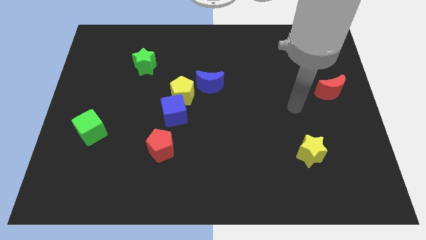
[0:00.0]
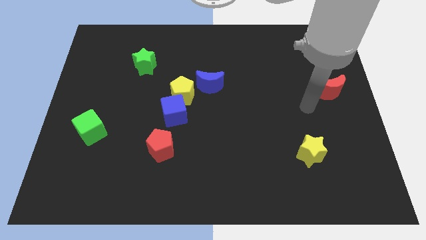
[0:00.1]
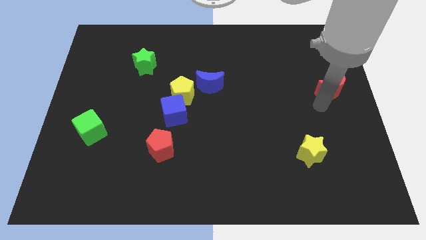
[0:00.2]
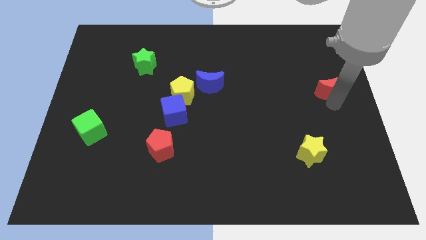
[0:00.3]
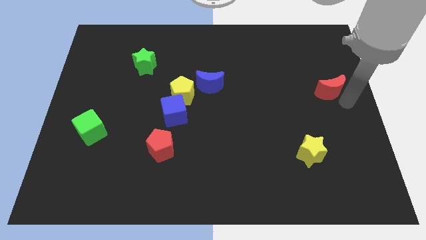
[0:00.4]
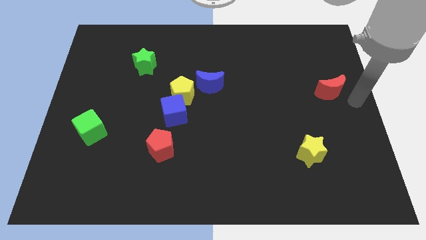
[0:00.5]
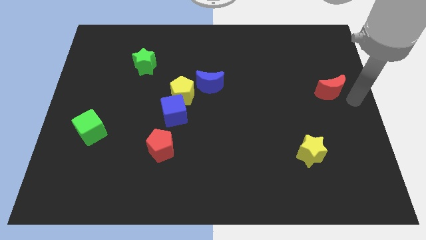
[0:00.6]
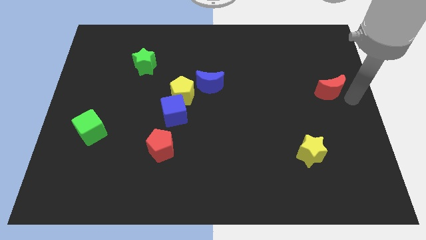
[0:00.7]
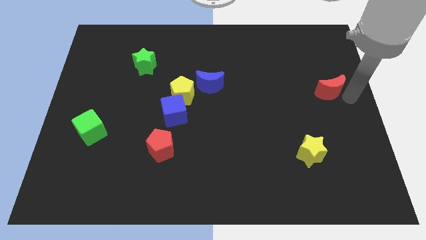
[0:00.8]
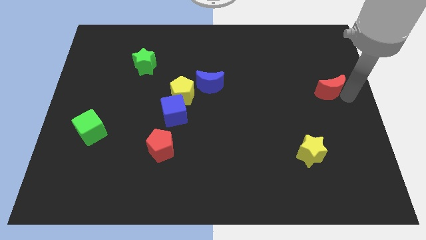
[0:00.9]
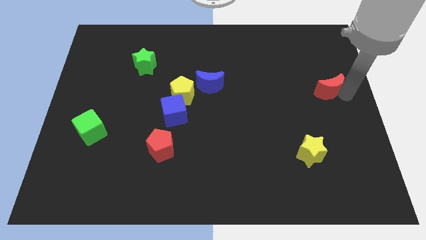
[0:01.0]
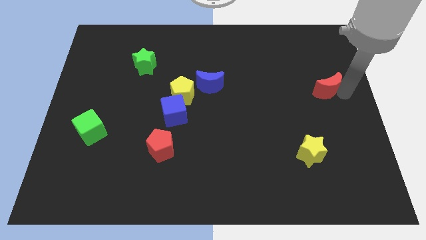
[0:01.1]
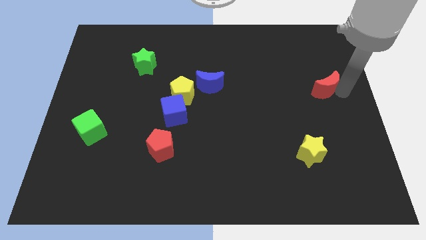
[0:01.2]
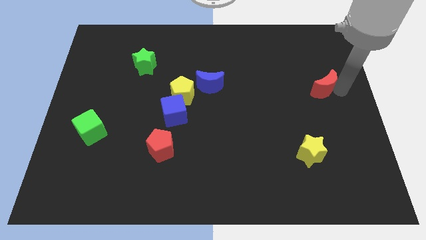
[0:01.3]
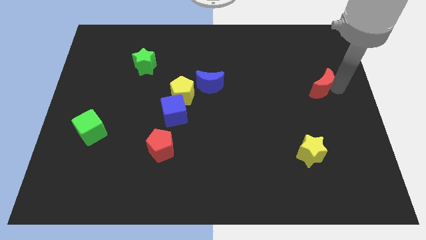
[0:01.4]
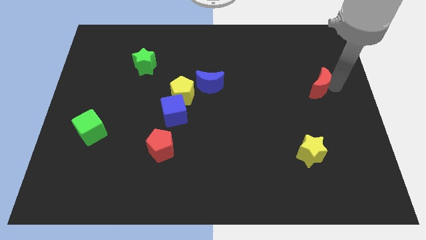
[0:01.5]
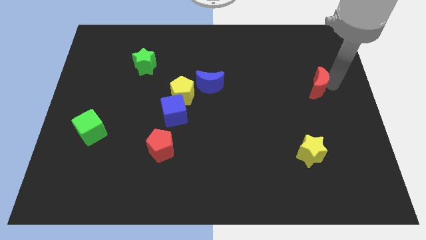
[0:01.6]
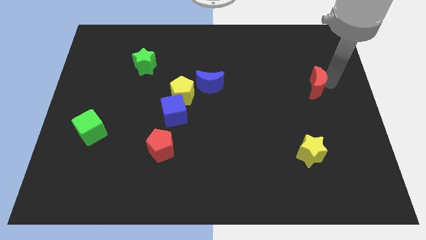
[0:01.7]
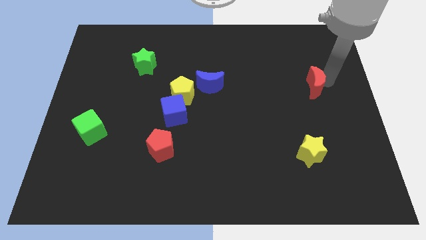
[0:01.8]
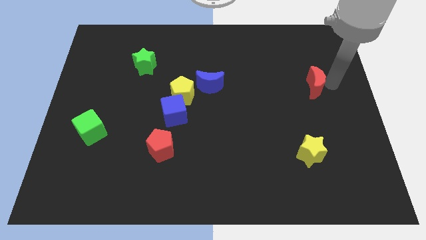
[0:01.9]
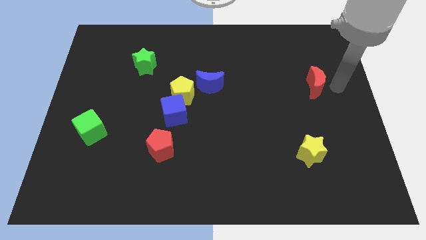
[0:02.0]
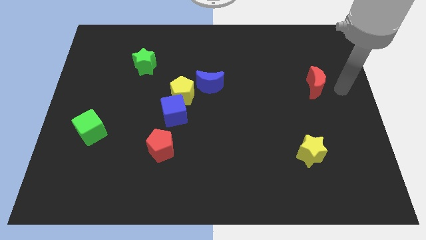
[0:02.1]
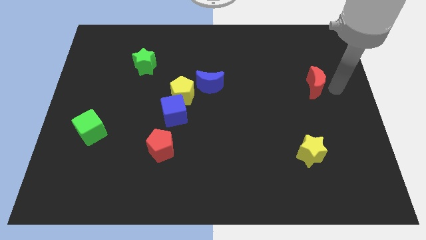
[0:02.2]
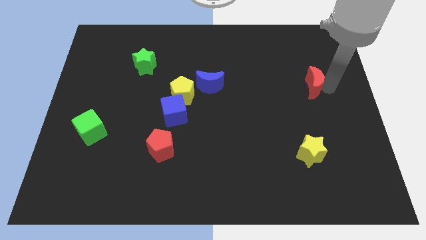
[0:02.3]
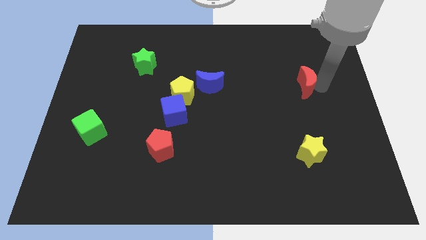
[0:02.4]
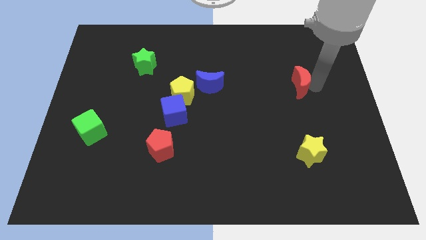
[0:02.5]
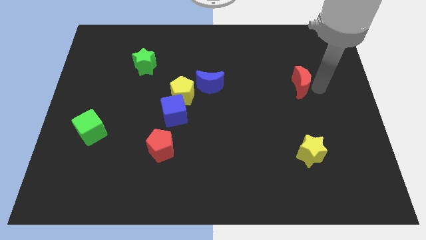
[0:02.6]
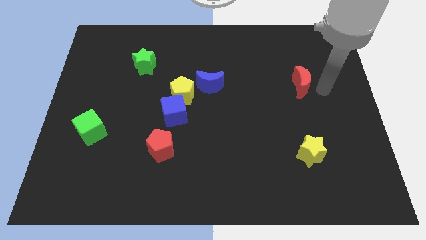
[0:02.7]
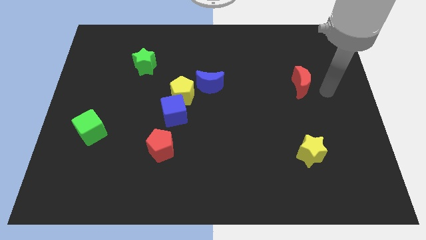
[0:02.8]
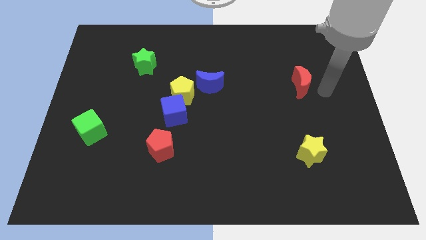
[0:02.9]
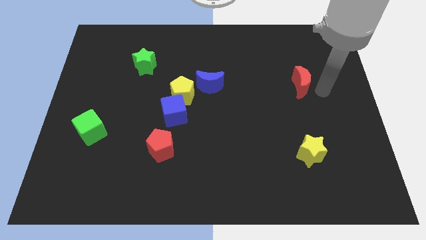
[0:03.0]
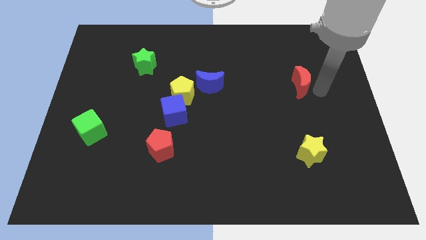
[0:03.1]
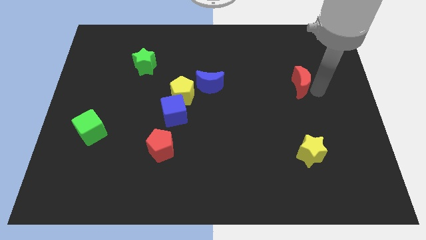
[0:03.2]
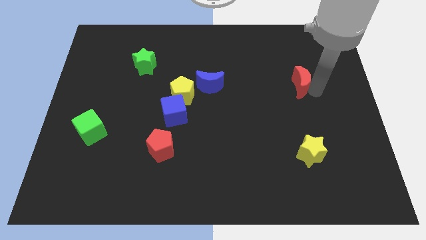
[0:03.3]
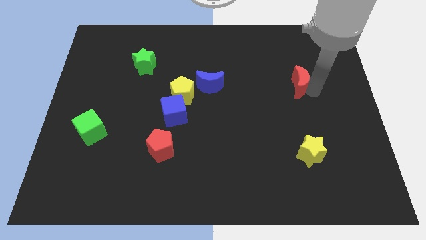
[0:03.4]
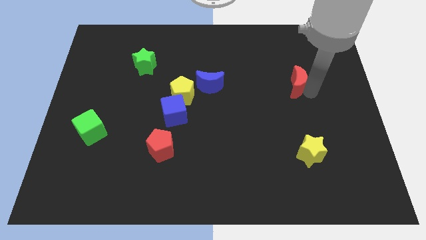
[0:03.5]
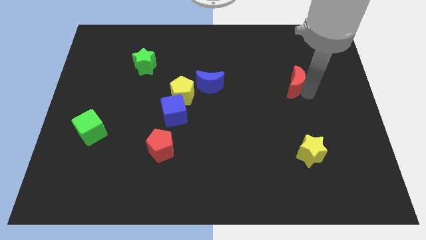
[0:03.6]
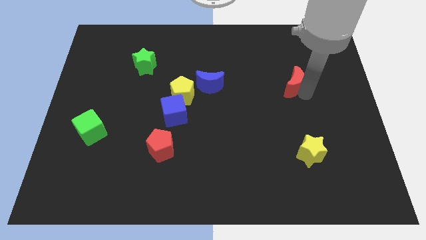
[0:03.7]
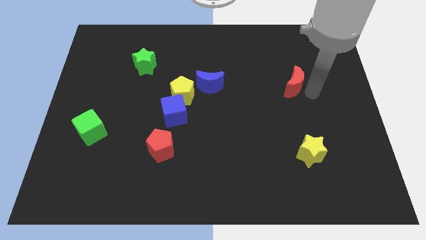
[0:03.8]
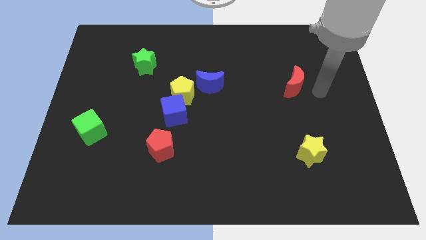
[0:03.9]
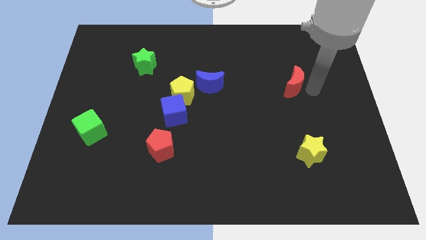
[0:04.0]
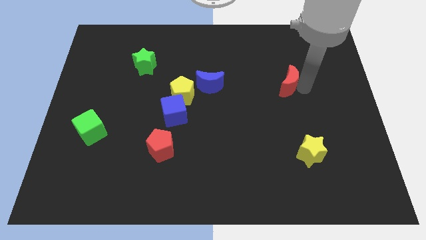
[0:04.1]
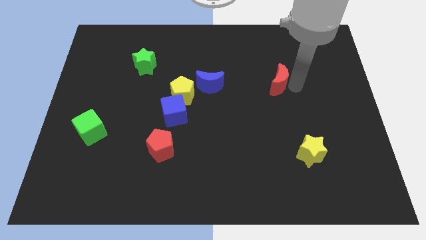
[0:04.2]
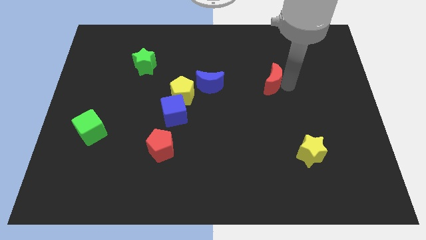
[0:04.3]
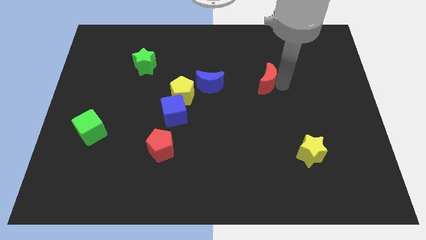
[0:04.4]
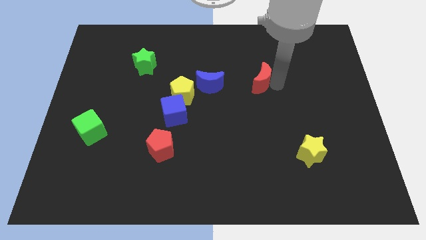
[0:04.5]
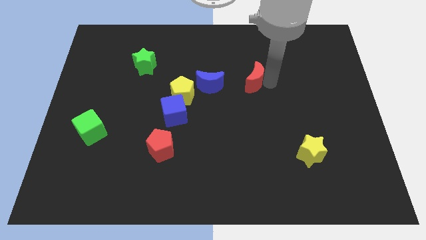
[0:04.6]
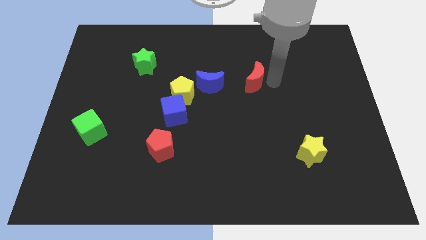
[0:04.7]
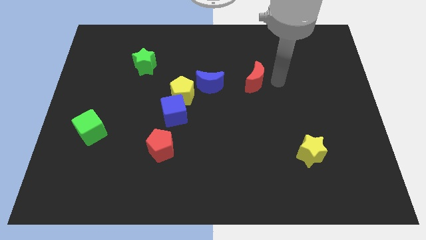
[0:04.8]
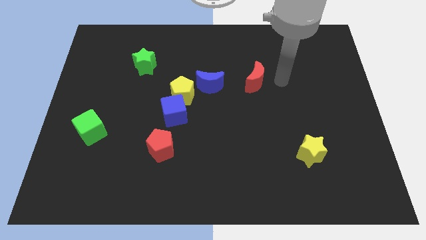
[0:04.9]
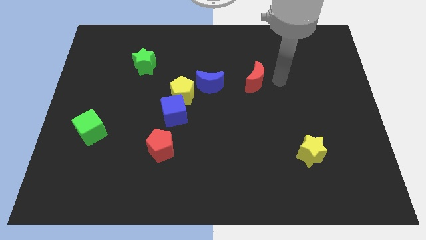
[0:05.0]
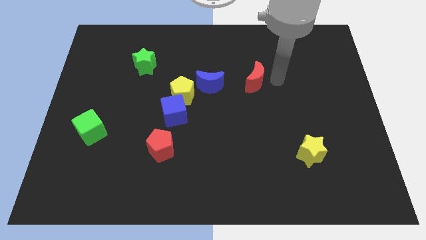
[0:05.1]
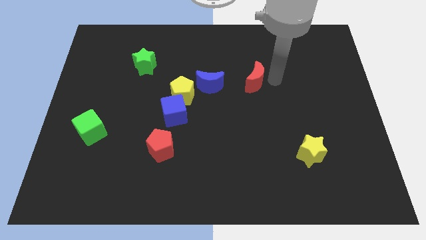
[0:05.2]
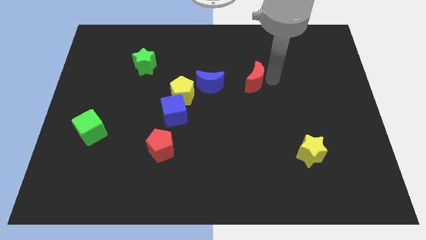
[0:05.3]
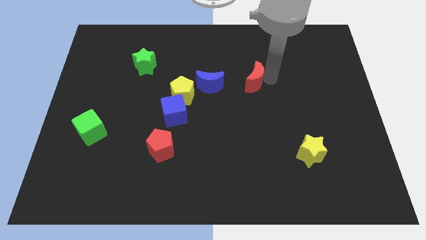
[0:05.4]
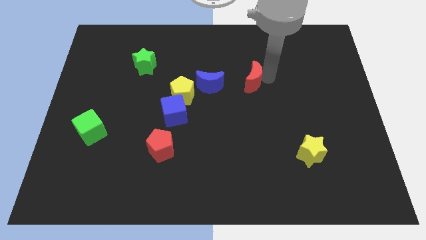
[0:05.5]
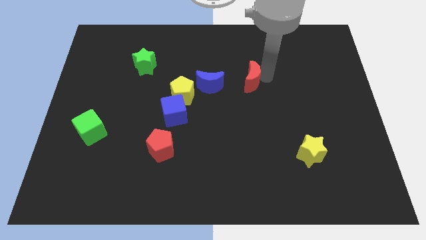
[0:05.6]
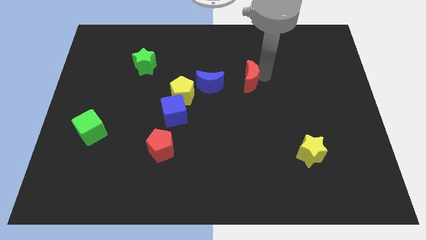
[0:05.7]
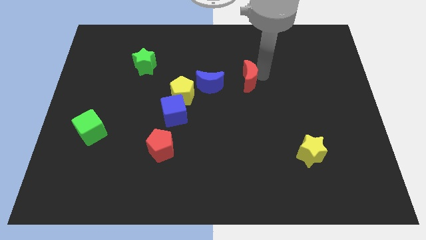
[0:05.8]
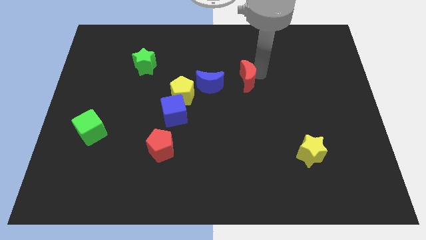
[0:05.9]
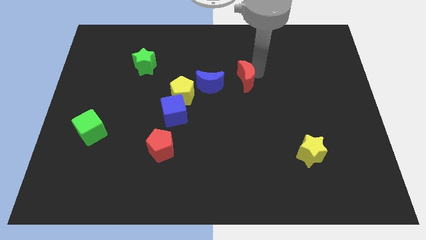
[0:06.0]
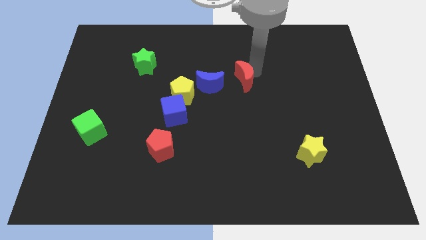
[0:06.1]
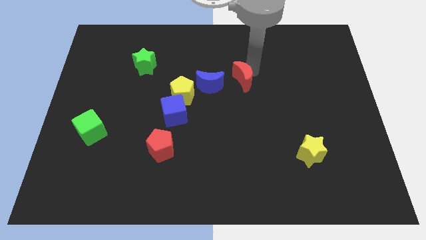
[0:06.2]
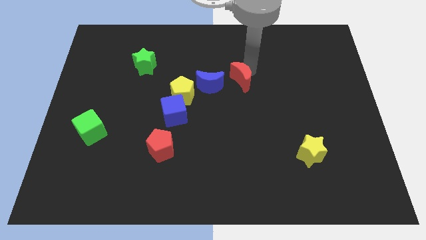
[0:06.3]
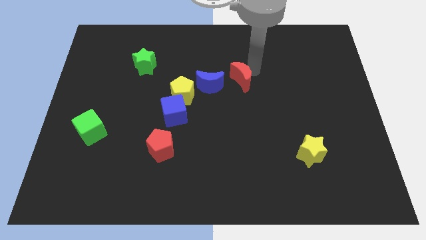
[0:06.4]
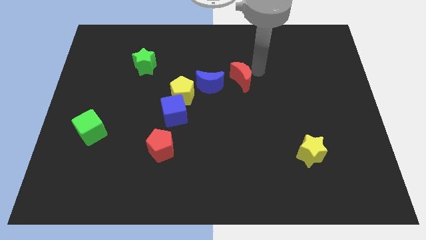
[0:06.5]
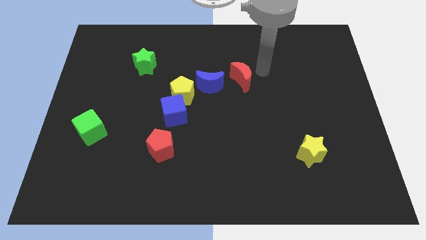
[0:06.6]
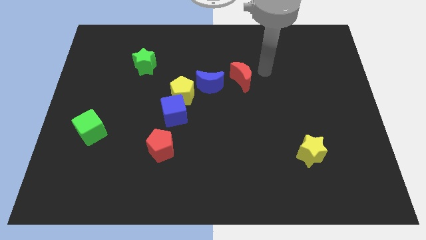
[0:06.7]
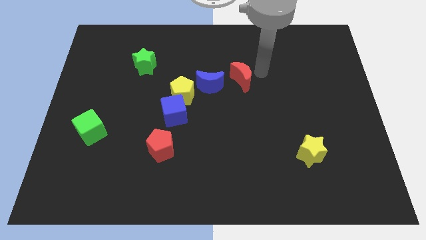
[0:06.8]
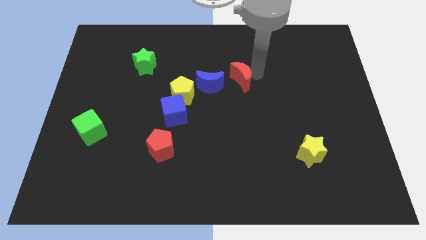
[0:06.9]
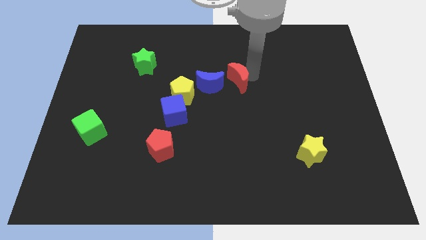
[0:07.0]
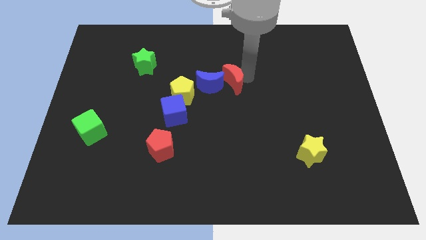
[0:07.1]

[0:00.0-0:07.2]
slide the red moon to the blue moon
